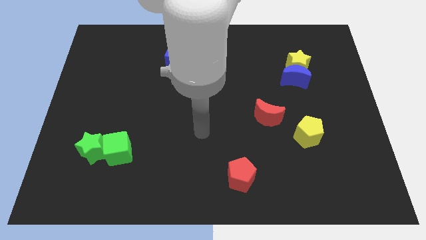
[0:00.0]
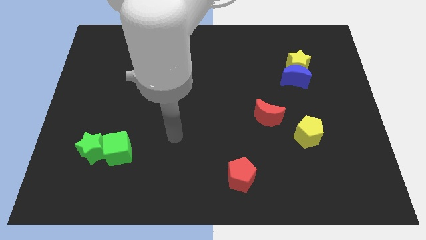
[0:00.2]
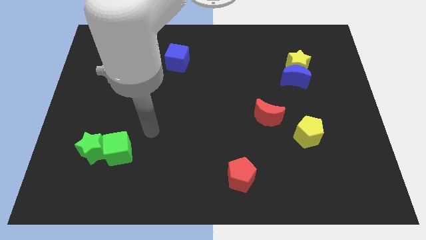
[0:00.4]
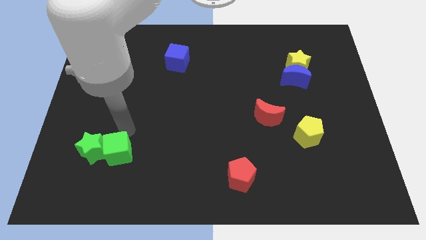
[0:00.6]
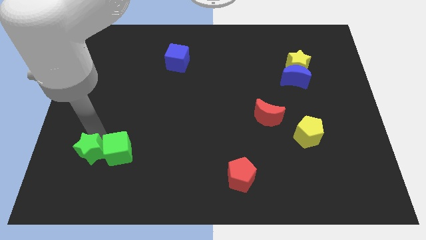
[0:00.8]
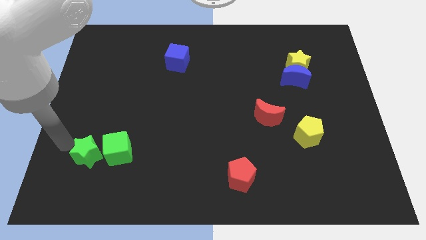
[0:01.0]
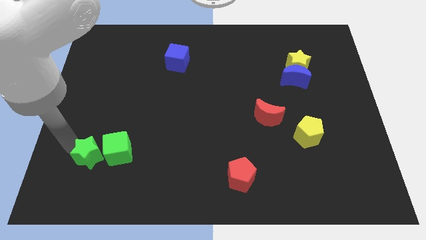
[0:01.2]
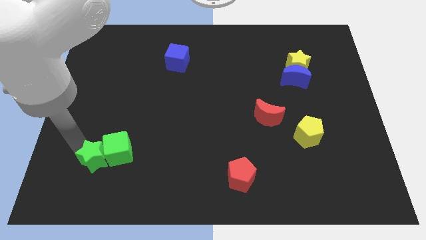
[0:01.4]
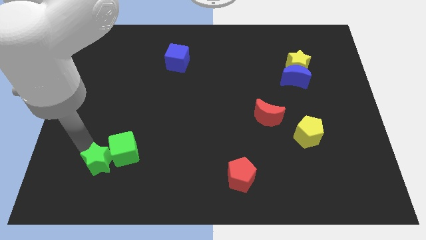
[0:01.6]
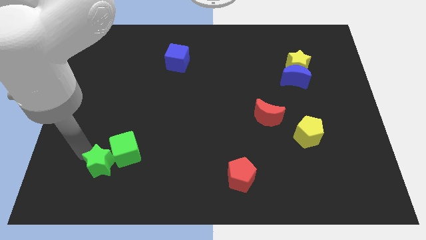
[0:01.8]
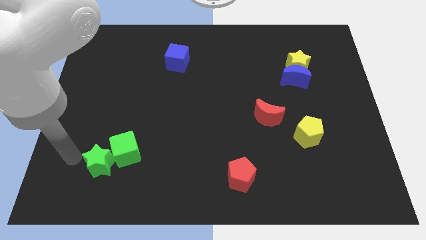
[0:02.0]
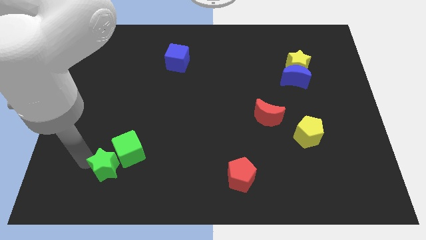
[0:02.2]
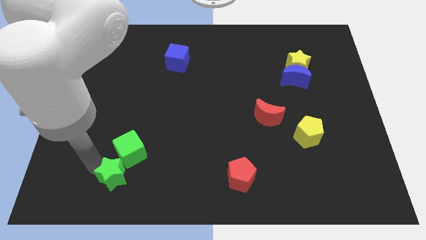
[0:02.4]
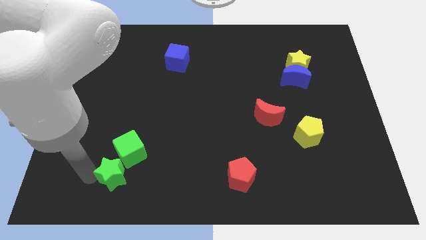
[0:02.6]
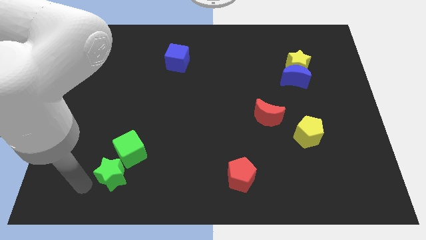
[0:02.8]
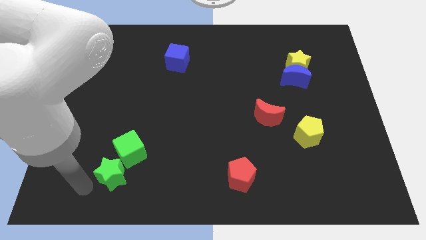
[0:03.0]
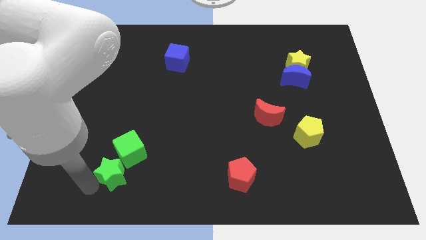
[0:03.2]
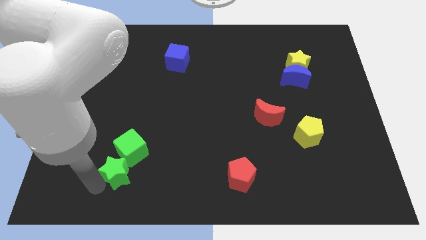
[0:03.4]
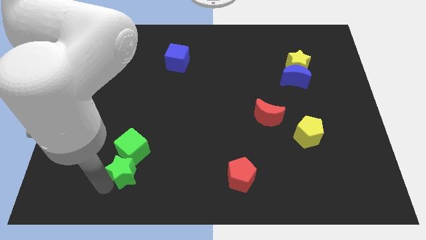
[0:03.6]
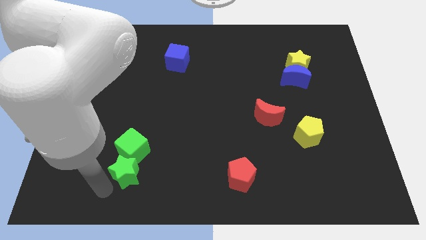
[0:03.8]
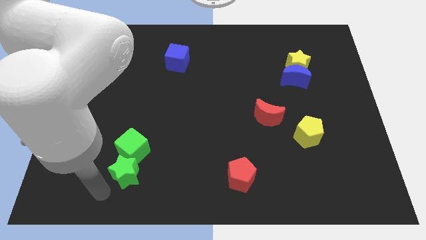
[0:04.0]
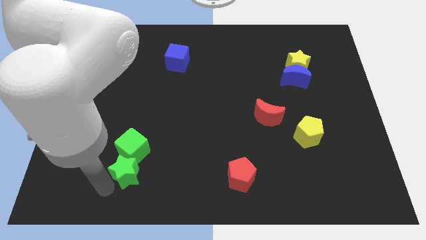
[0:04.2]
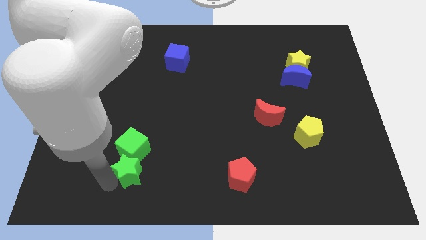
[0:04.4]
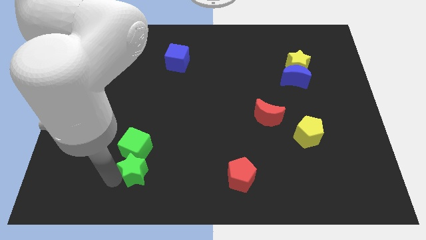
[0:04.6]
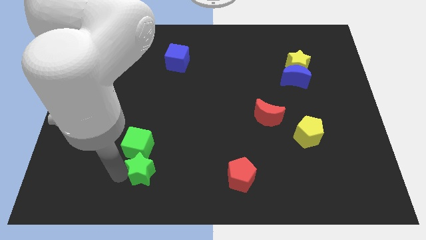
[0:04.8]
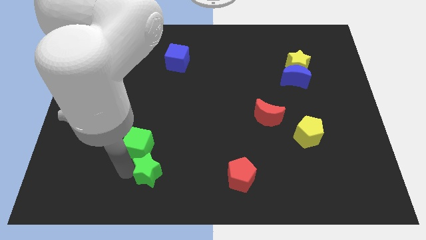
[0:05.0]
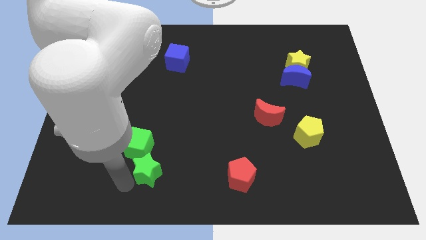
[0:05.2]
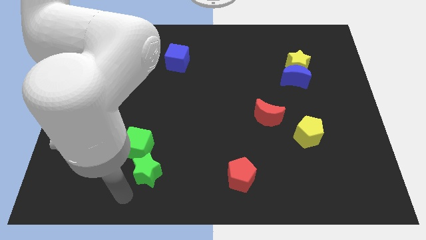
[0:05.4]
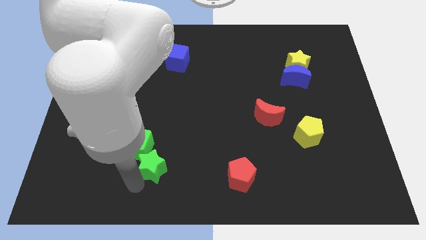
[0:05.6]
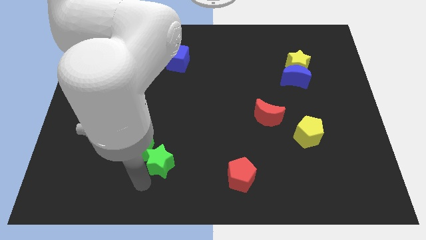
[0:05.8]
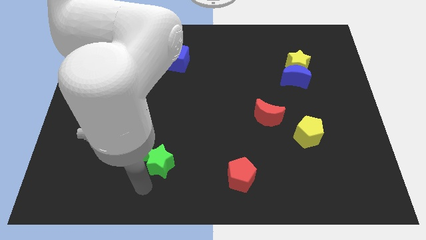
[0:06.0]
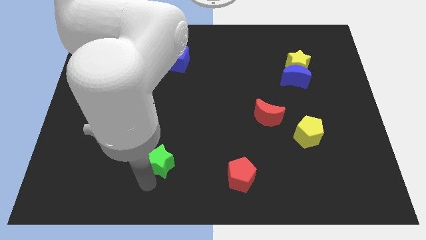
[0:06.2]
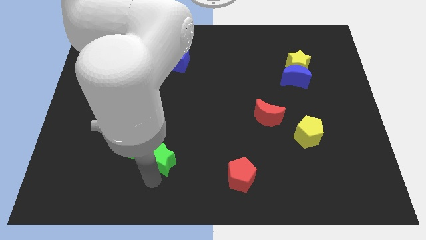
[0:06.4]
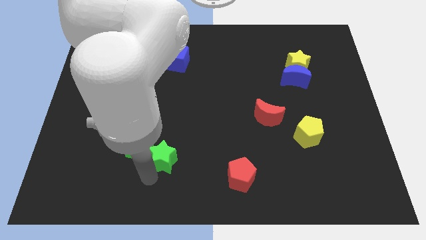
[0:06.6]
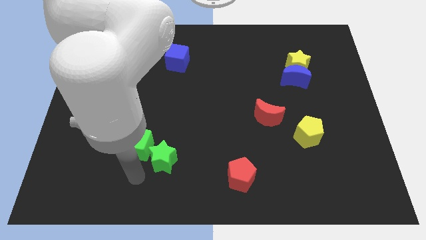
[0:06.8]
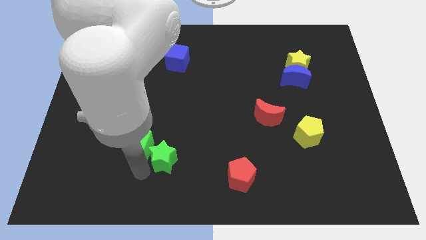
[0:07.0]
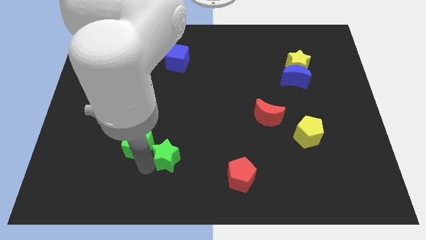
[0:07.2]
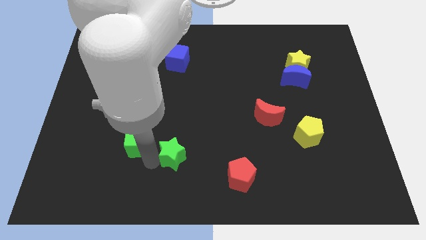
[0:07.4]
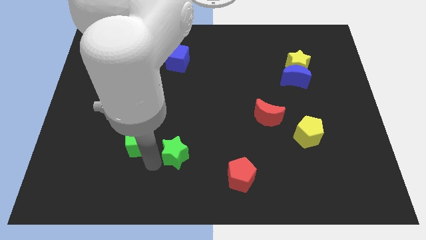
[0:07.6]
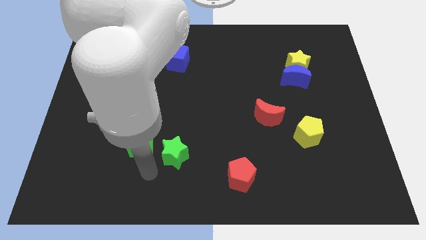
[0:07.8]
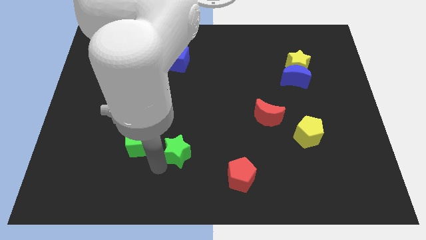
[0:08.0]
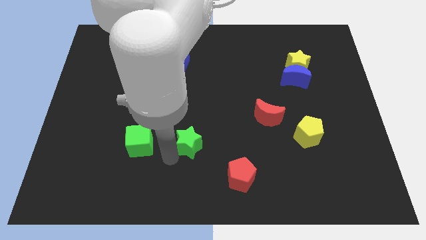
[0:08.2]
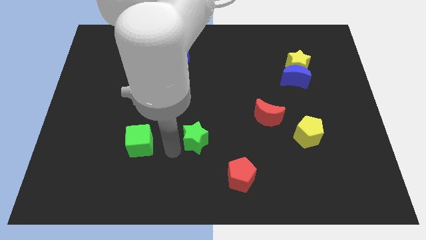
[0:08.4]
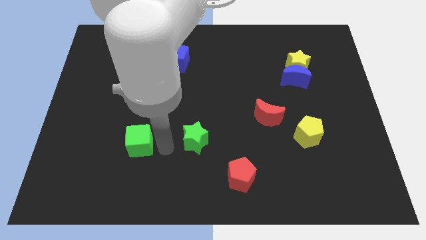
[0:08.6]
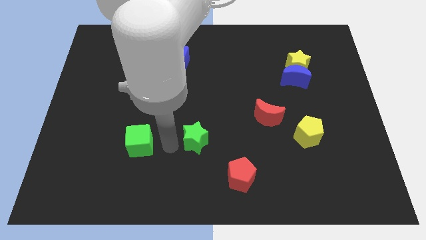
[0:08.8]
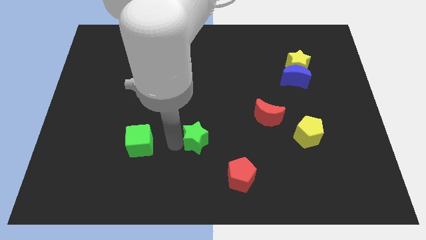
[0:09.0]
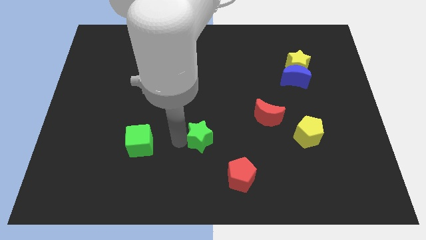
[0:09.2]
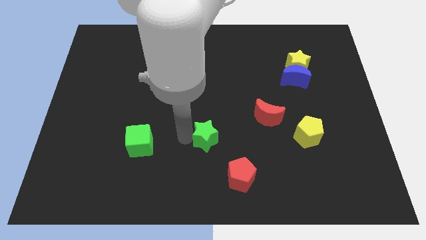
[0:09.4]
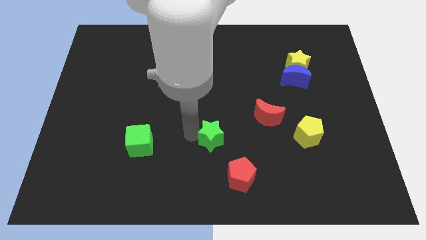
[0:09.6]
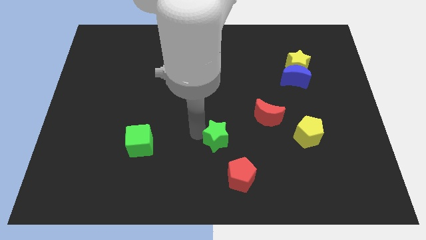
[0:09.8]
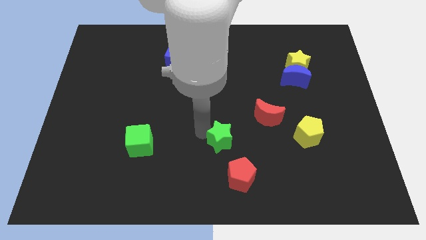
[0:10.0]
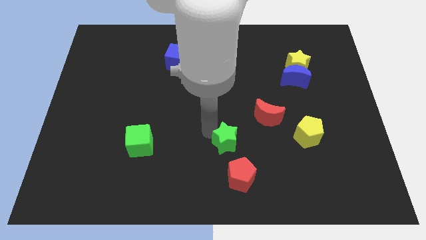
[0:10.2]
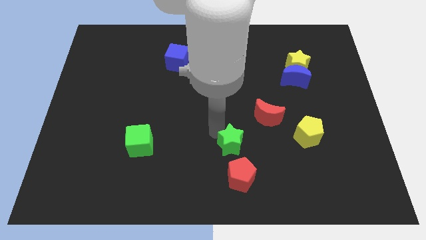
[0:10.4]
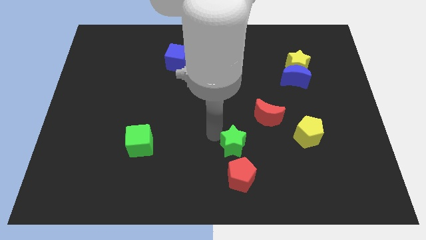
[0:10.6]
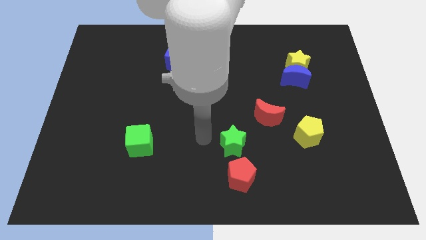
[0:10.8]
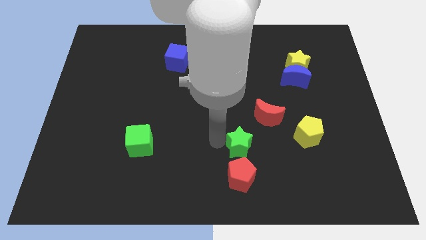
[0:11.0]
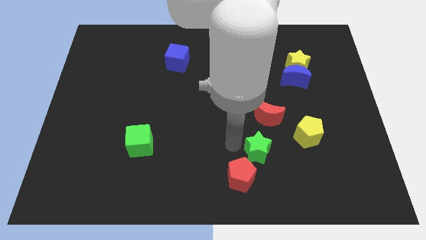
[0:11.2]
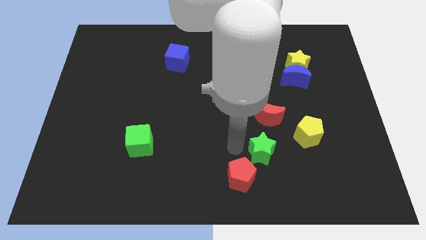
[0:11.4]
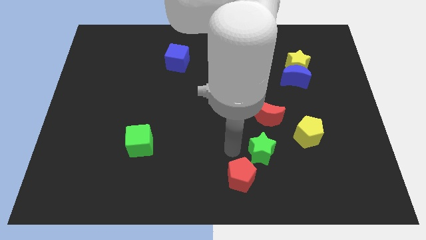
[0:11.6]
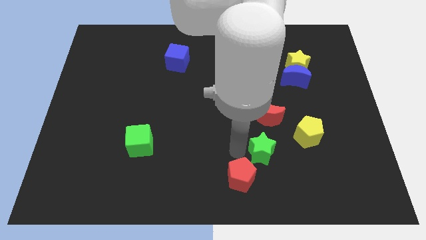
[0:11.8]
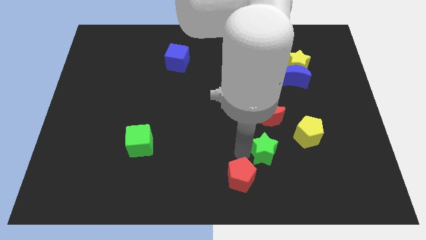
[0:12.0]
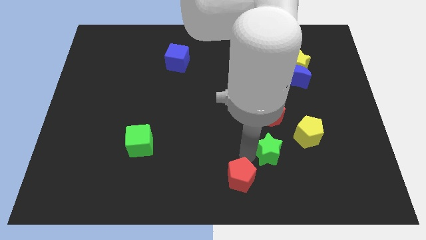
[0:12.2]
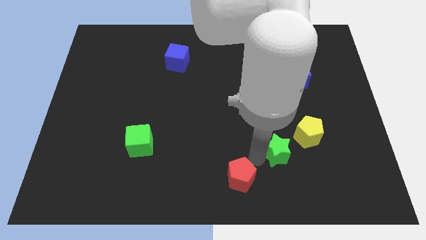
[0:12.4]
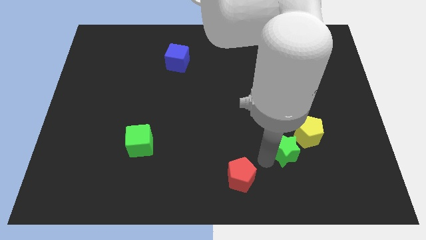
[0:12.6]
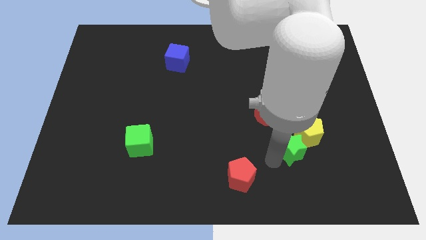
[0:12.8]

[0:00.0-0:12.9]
move the green star close to the yellow pentagon

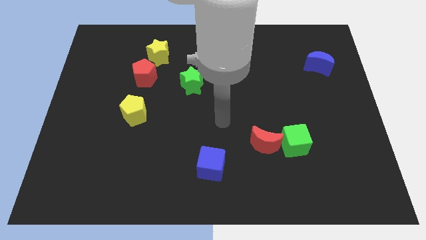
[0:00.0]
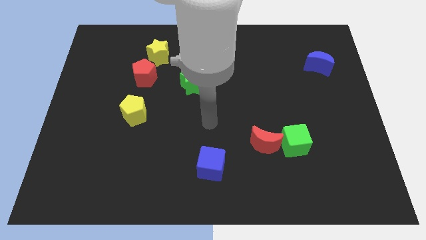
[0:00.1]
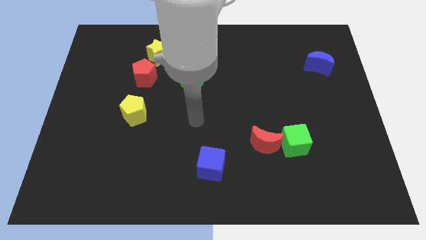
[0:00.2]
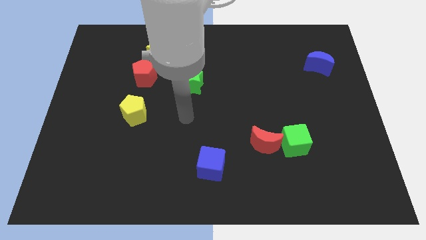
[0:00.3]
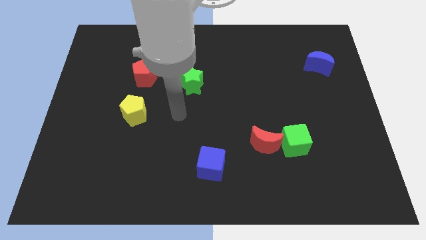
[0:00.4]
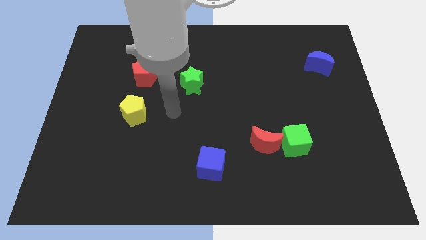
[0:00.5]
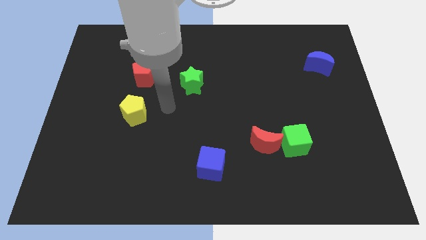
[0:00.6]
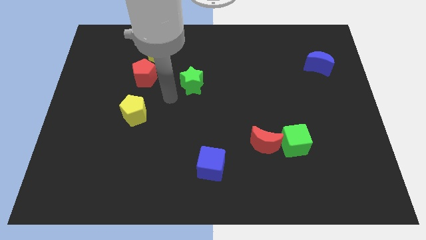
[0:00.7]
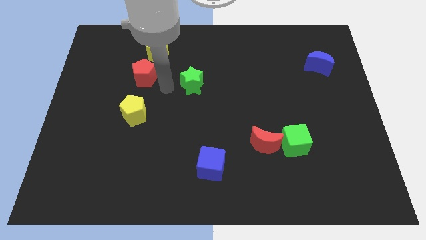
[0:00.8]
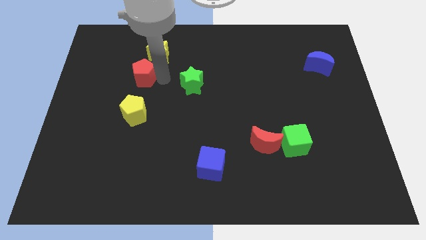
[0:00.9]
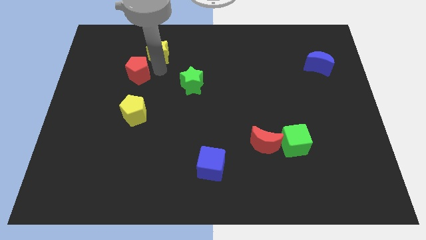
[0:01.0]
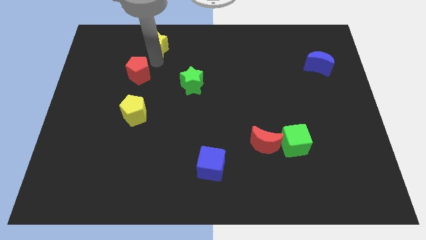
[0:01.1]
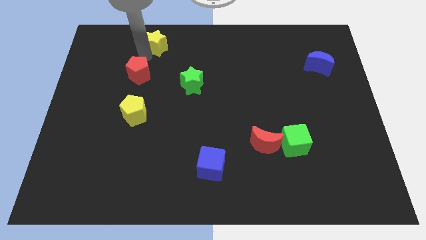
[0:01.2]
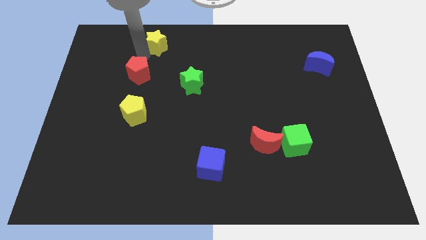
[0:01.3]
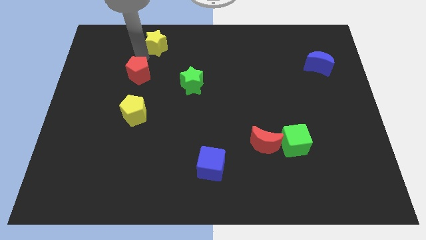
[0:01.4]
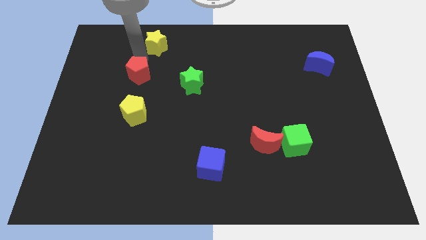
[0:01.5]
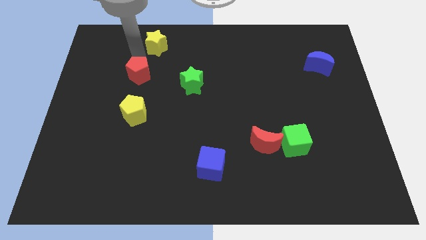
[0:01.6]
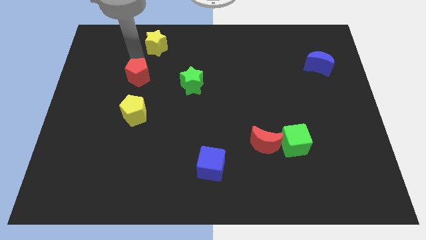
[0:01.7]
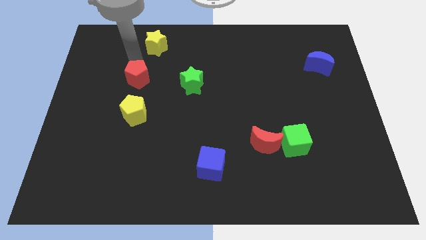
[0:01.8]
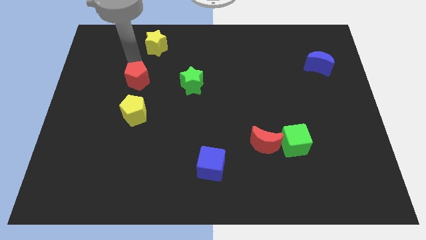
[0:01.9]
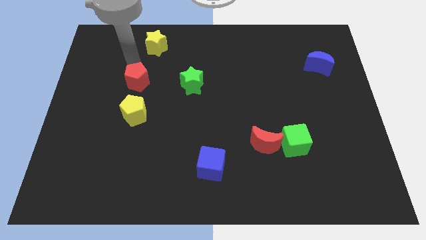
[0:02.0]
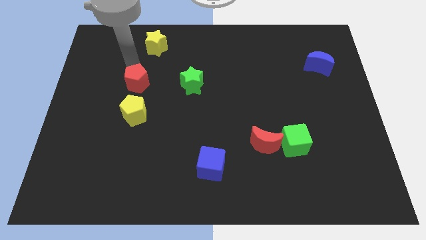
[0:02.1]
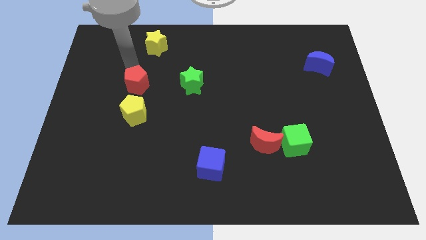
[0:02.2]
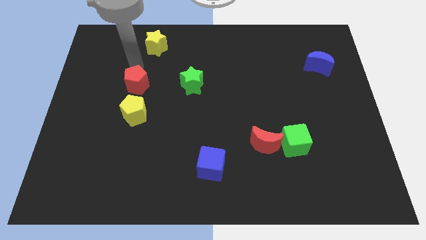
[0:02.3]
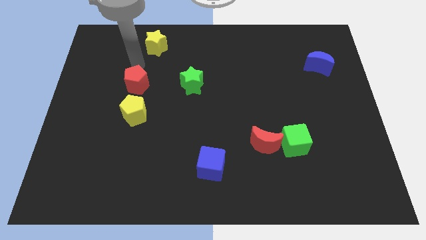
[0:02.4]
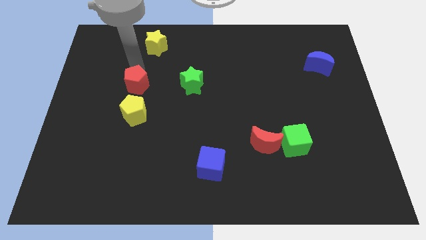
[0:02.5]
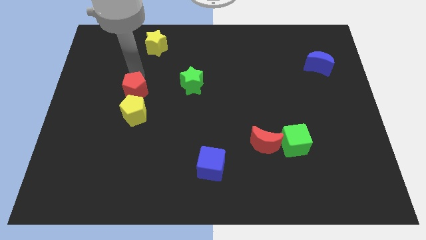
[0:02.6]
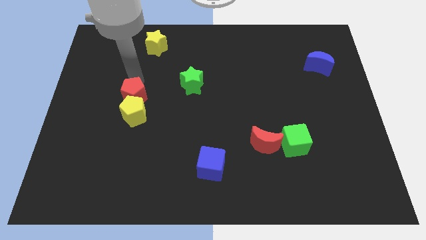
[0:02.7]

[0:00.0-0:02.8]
slide the red pentagon towards the yellow pentagon
